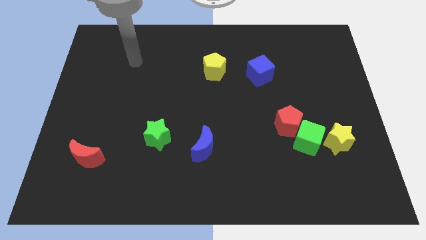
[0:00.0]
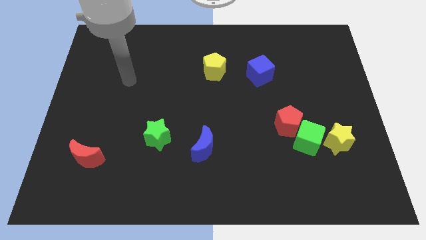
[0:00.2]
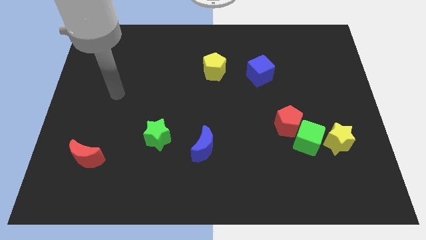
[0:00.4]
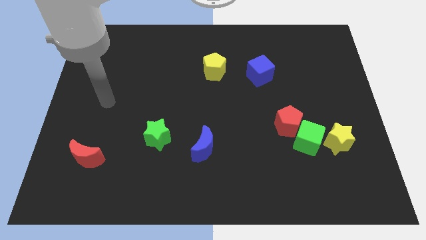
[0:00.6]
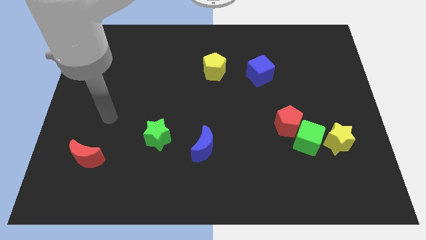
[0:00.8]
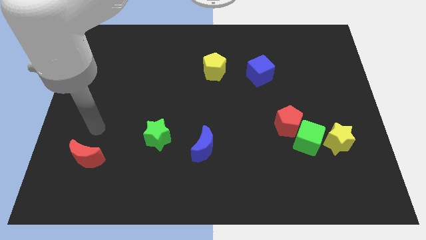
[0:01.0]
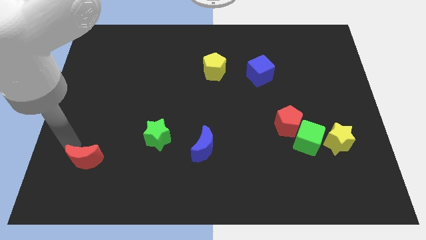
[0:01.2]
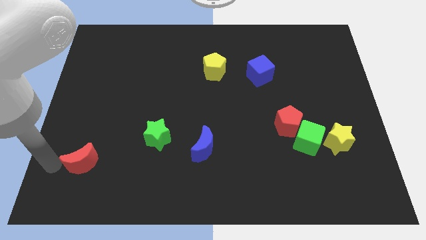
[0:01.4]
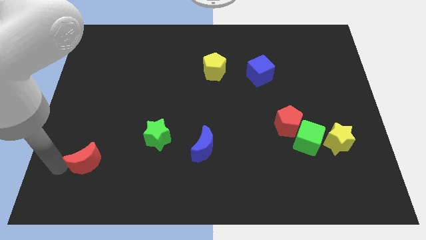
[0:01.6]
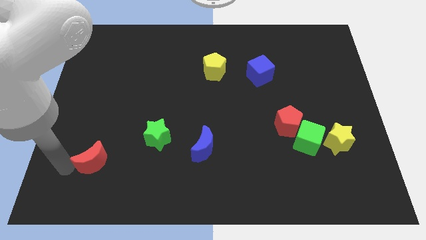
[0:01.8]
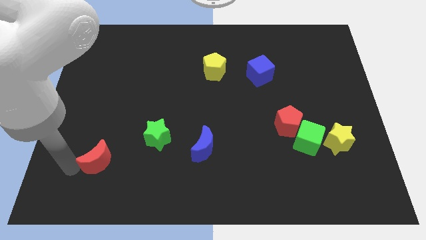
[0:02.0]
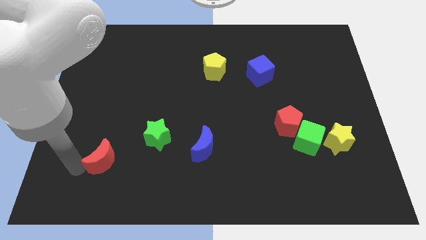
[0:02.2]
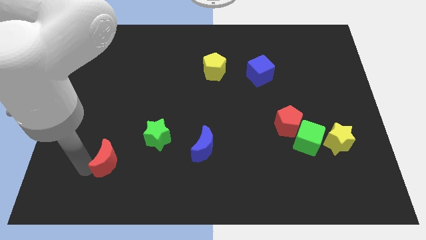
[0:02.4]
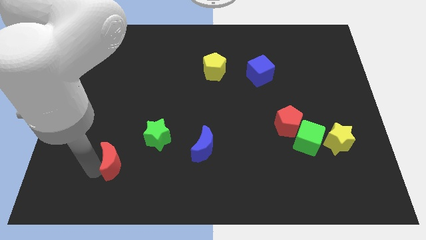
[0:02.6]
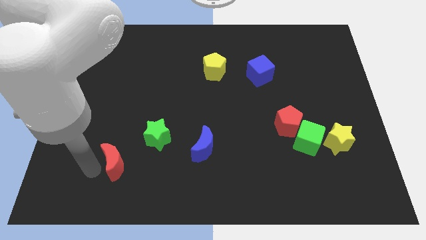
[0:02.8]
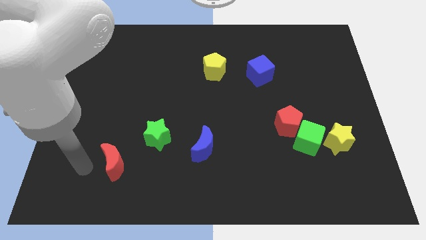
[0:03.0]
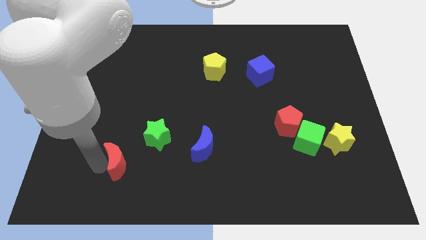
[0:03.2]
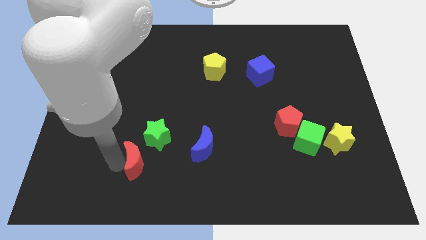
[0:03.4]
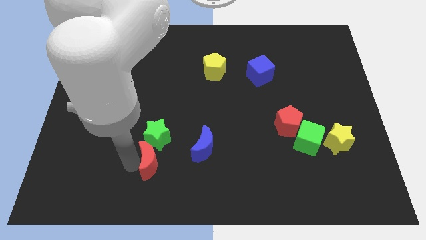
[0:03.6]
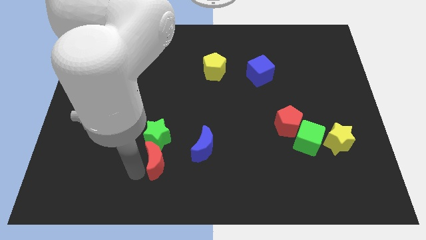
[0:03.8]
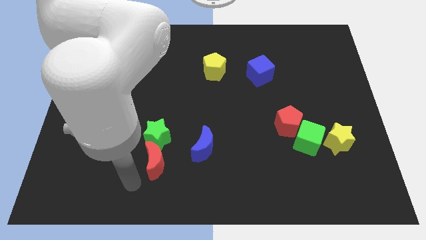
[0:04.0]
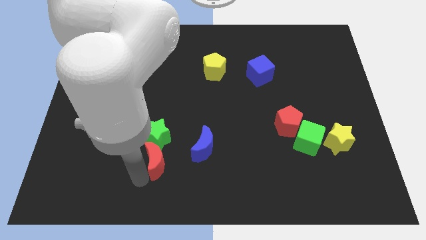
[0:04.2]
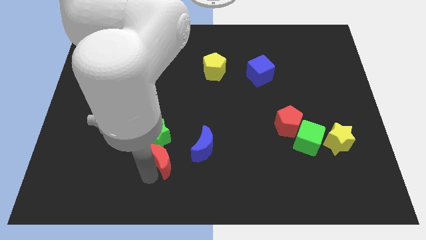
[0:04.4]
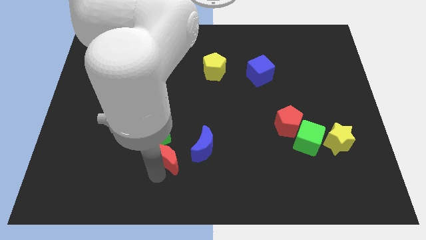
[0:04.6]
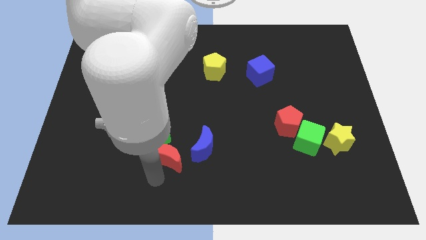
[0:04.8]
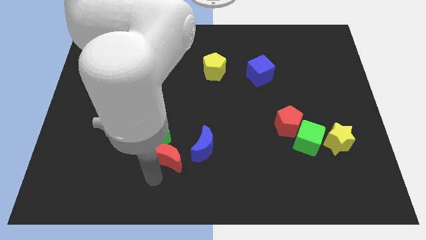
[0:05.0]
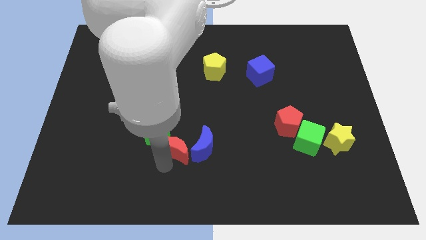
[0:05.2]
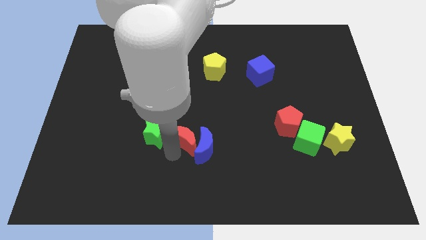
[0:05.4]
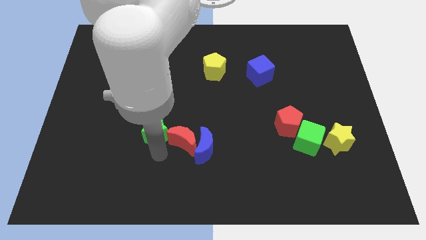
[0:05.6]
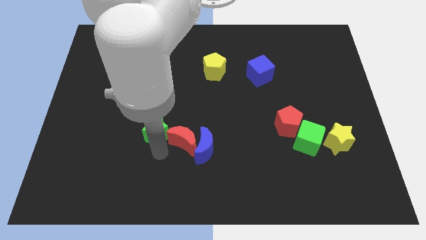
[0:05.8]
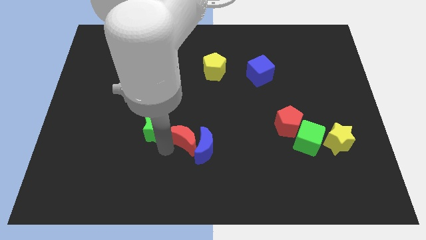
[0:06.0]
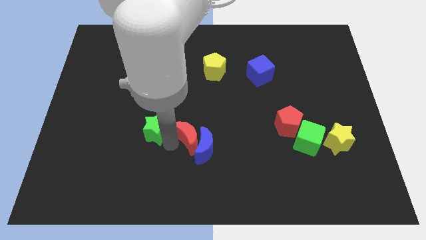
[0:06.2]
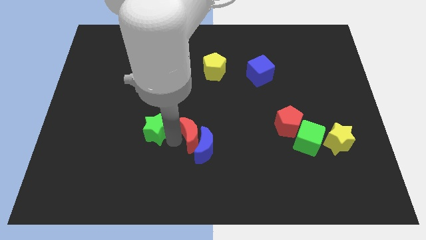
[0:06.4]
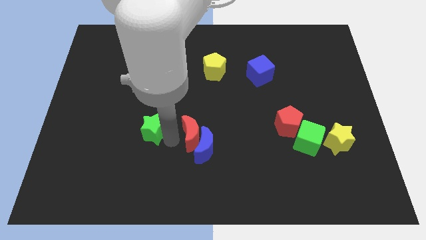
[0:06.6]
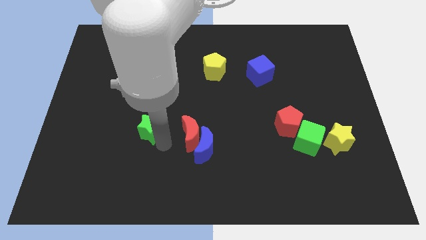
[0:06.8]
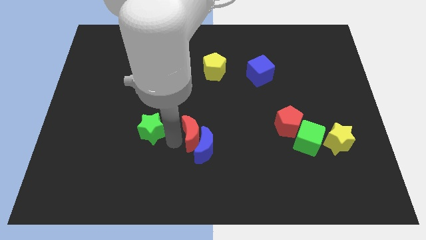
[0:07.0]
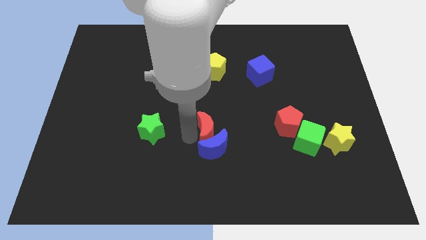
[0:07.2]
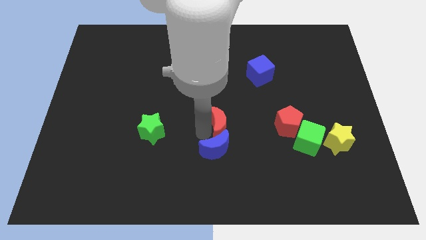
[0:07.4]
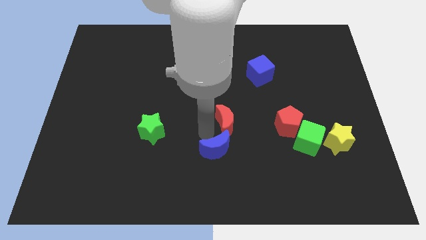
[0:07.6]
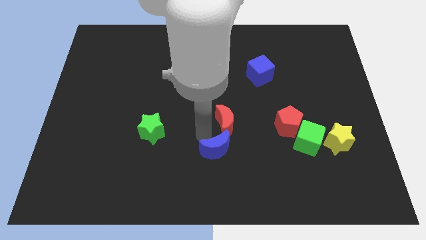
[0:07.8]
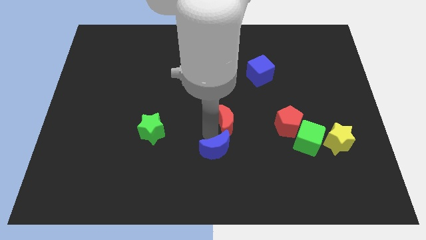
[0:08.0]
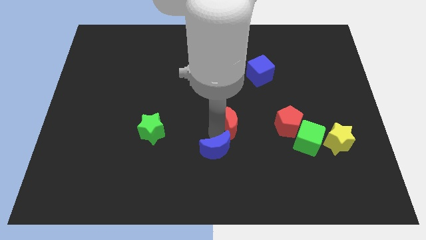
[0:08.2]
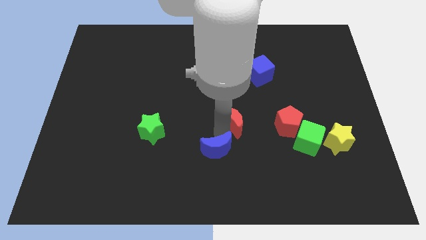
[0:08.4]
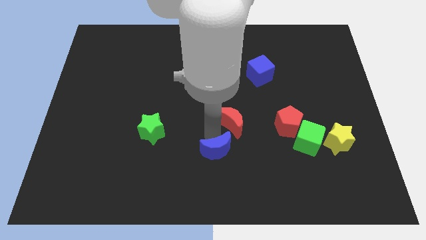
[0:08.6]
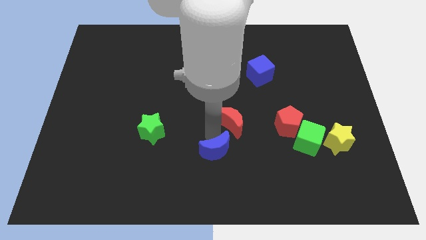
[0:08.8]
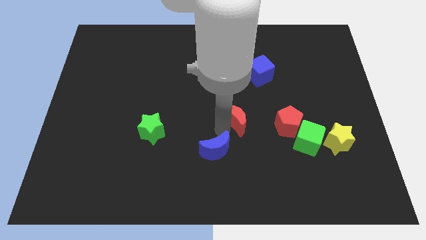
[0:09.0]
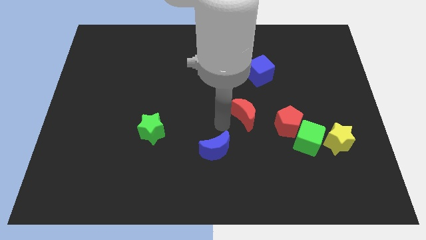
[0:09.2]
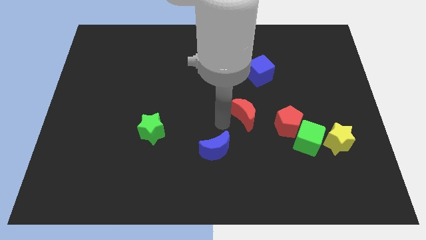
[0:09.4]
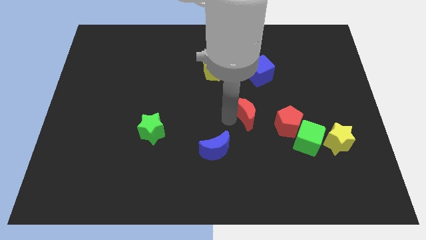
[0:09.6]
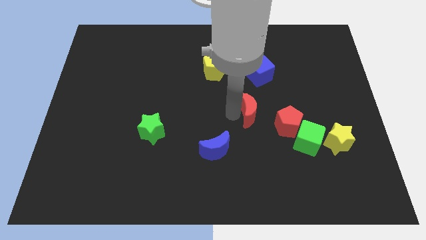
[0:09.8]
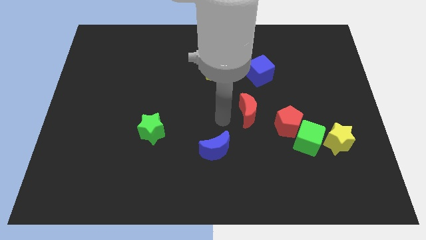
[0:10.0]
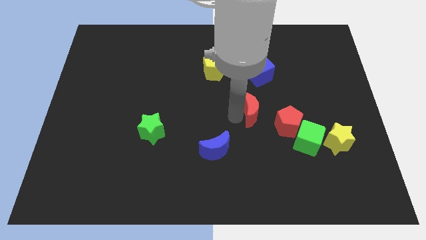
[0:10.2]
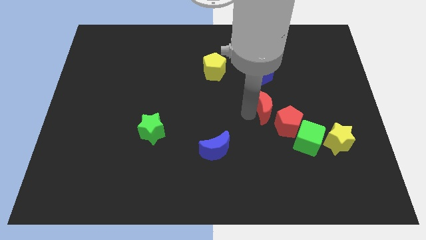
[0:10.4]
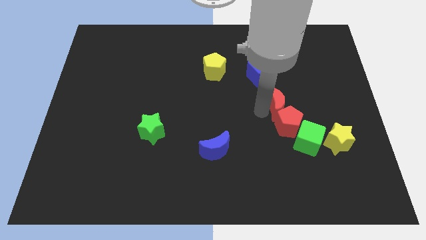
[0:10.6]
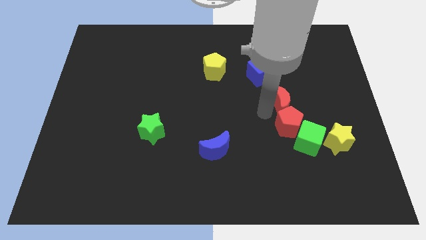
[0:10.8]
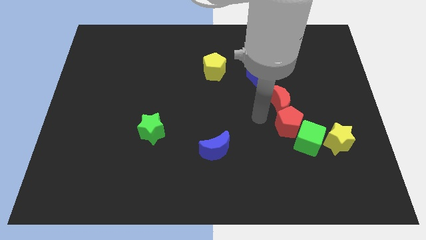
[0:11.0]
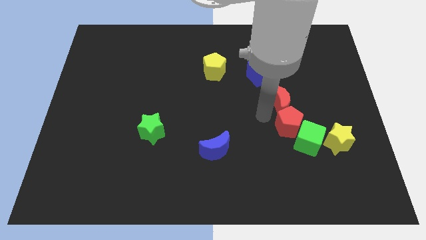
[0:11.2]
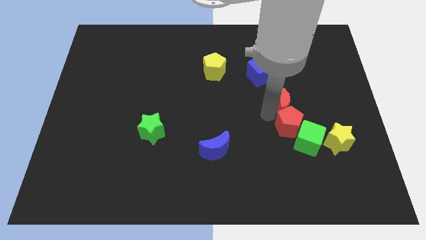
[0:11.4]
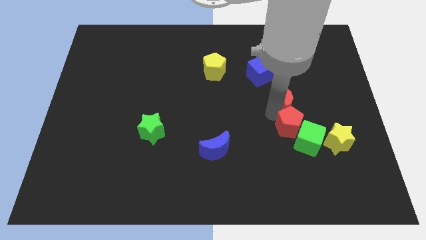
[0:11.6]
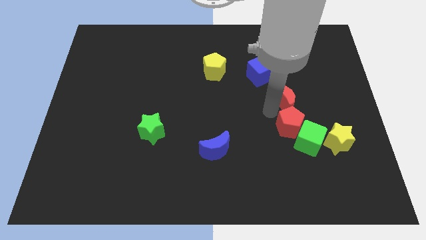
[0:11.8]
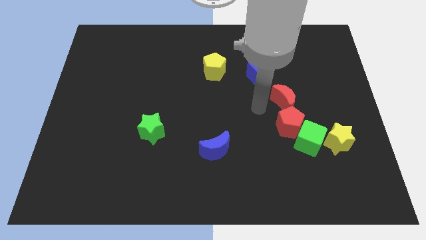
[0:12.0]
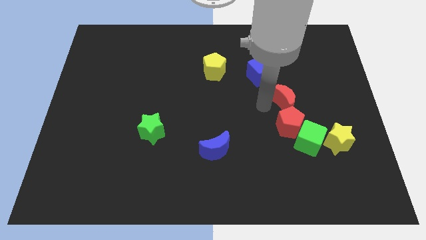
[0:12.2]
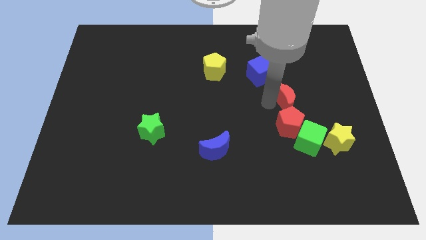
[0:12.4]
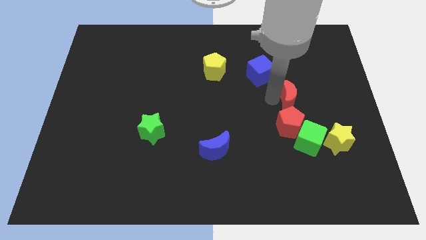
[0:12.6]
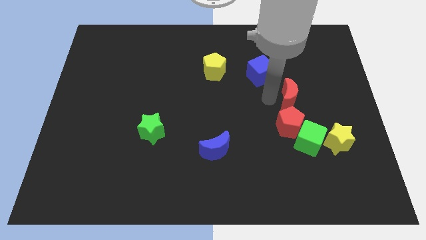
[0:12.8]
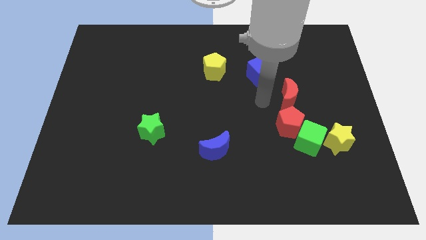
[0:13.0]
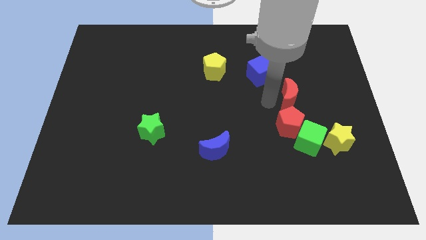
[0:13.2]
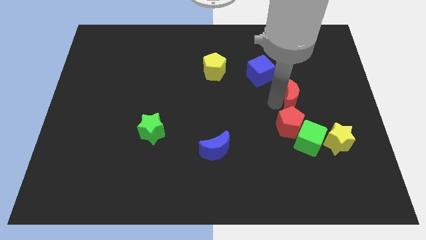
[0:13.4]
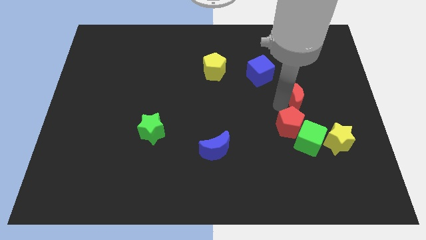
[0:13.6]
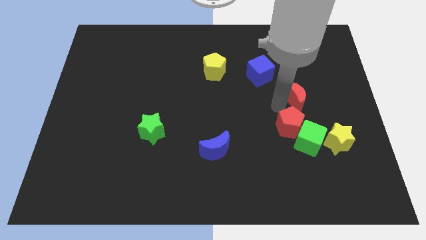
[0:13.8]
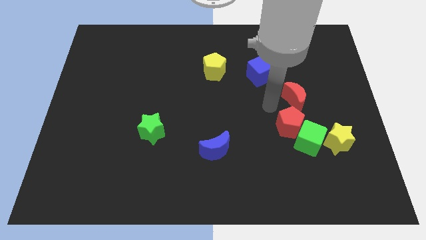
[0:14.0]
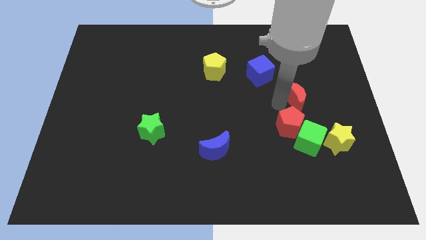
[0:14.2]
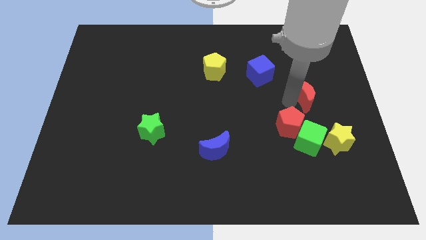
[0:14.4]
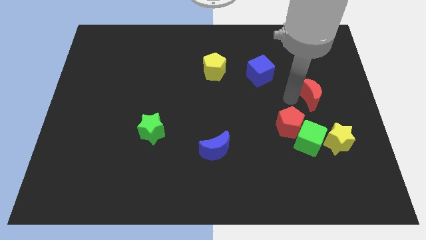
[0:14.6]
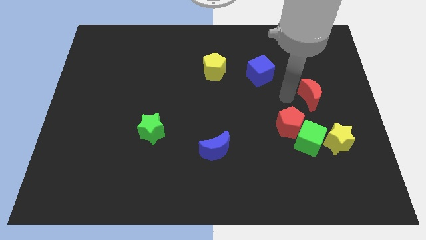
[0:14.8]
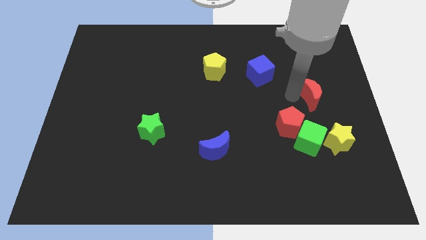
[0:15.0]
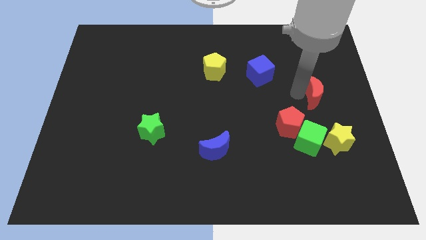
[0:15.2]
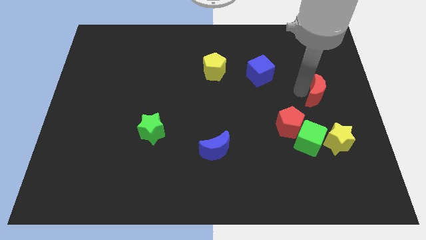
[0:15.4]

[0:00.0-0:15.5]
put the red moon to the right side of the board
